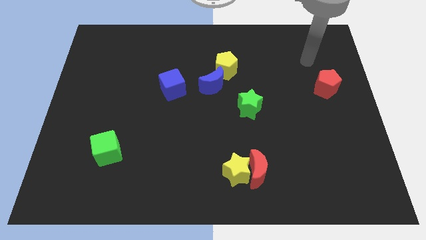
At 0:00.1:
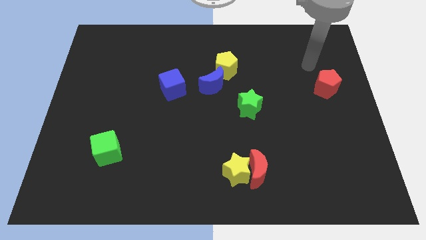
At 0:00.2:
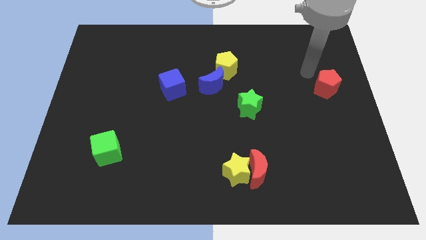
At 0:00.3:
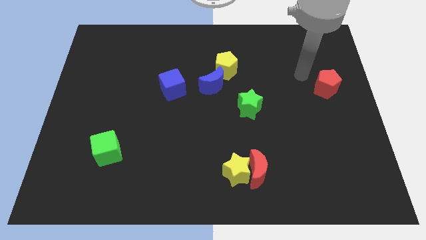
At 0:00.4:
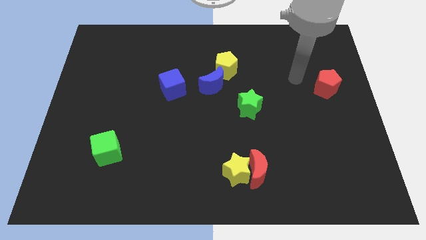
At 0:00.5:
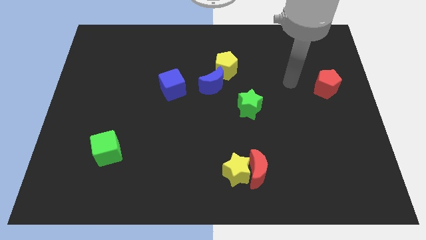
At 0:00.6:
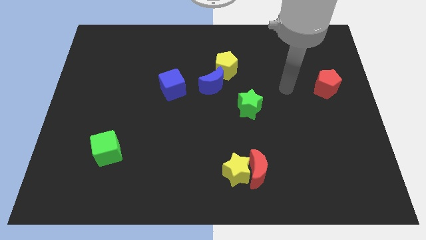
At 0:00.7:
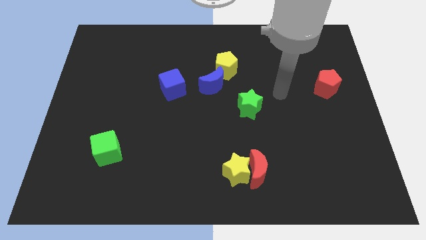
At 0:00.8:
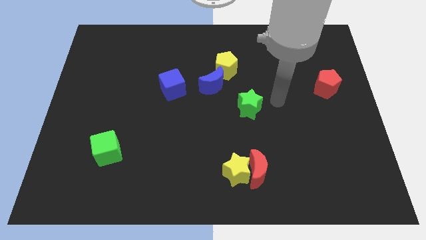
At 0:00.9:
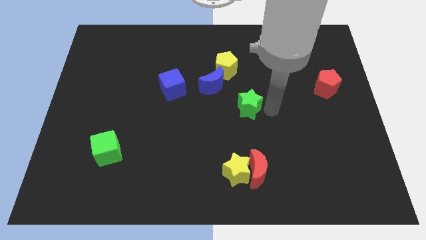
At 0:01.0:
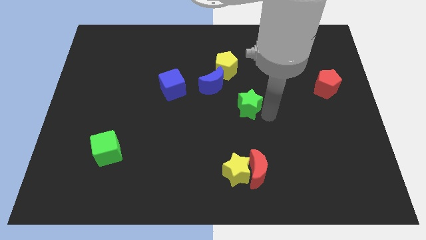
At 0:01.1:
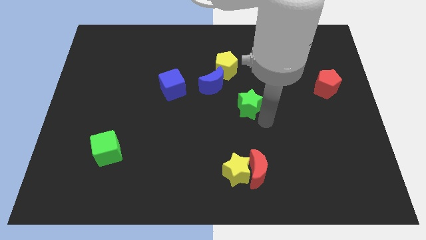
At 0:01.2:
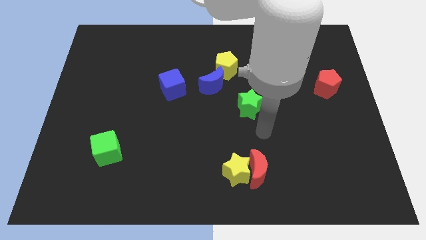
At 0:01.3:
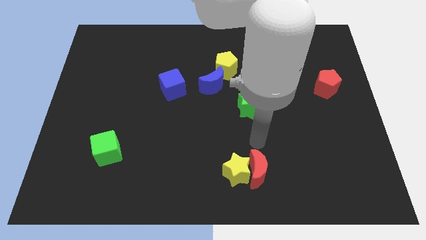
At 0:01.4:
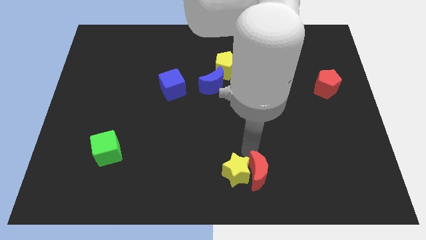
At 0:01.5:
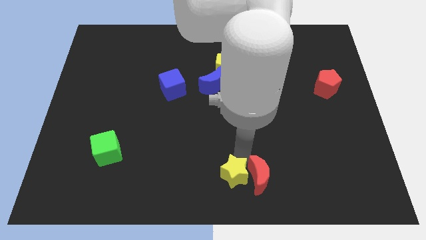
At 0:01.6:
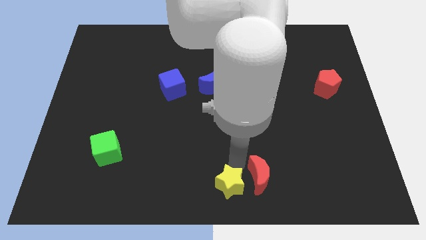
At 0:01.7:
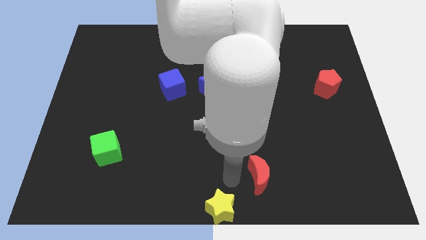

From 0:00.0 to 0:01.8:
separate the red moon from the yellow star

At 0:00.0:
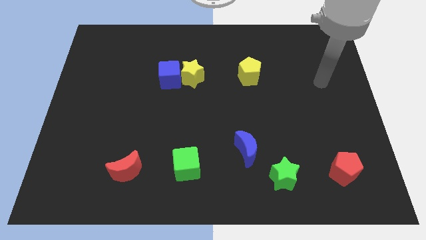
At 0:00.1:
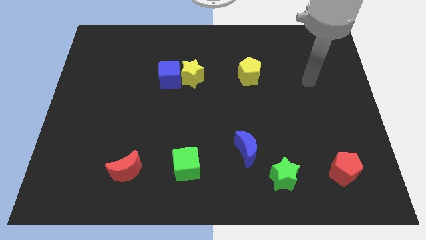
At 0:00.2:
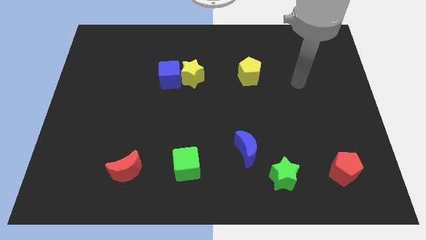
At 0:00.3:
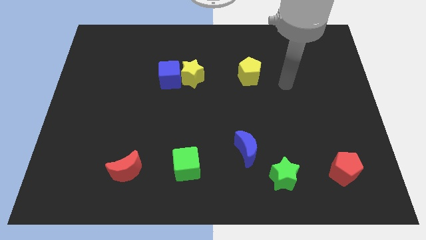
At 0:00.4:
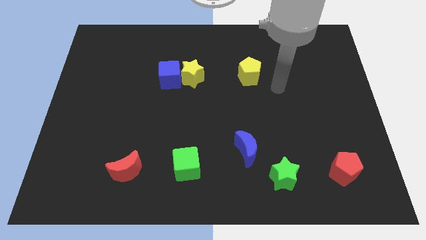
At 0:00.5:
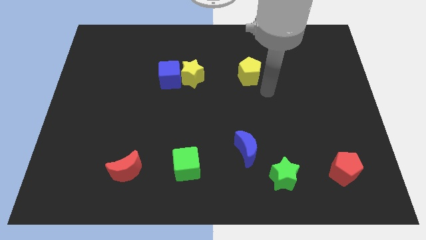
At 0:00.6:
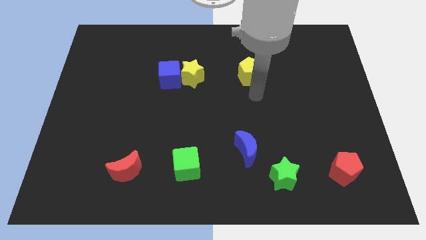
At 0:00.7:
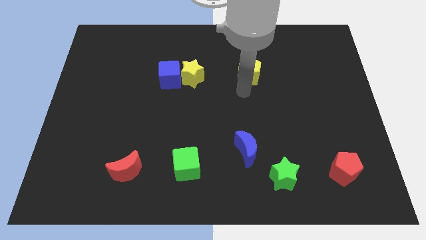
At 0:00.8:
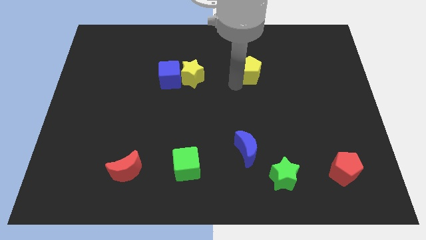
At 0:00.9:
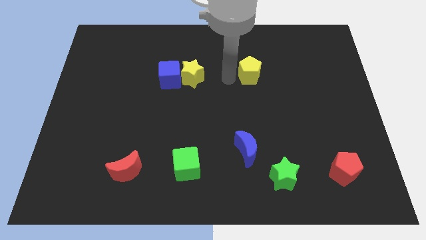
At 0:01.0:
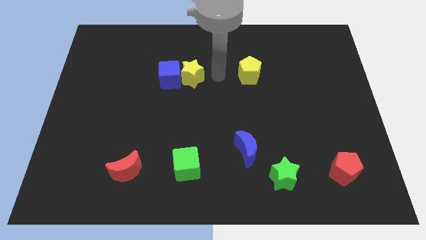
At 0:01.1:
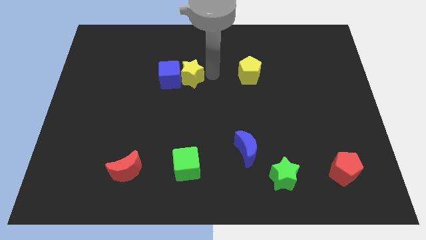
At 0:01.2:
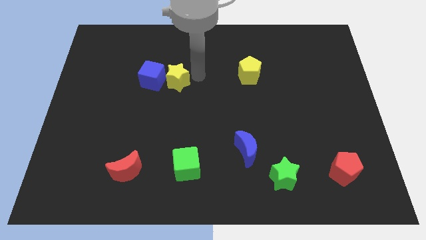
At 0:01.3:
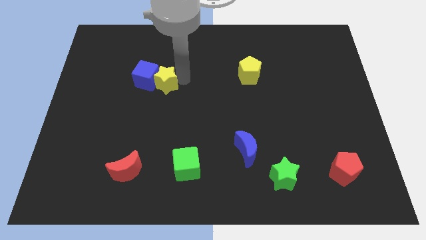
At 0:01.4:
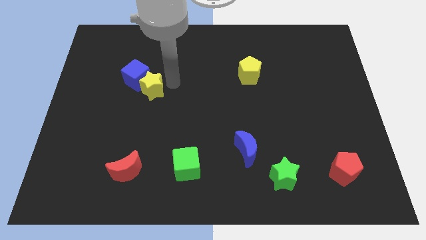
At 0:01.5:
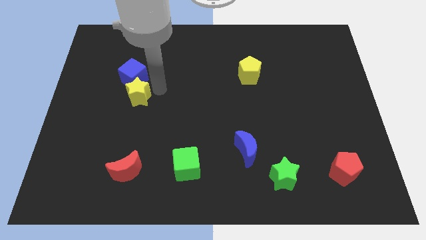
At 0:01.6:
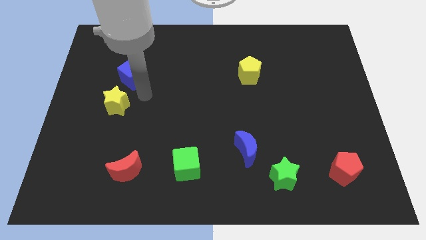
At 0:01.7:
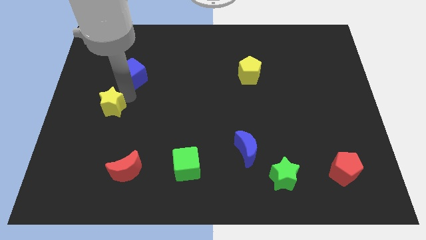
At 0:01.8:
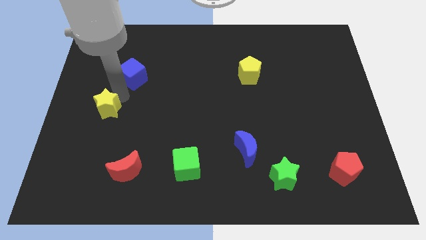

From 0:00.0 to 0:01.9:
separate the blue cube from the yellow star

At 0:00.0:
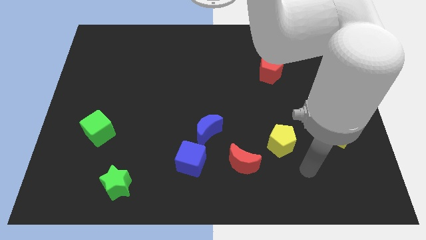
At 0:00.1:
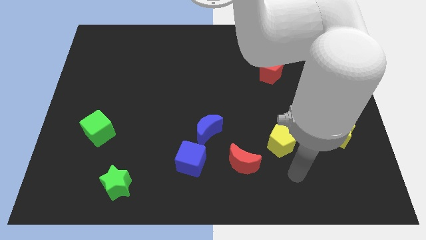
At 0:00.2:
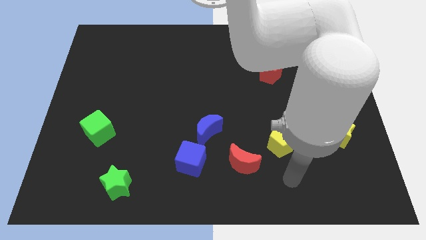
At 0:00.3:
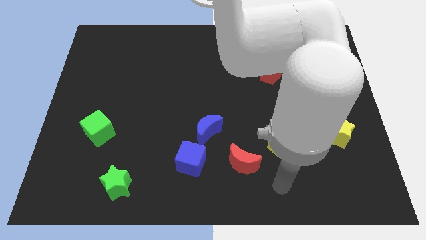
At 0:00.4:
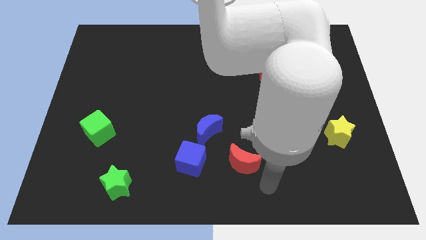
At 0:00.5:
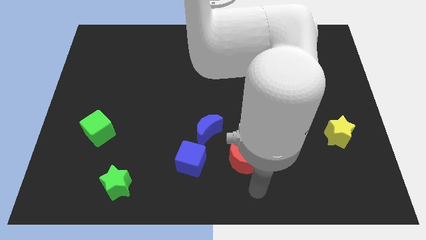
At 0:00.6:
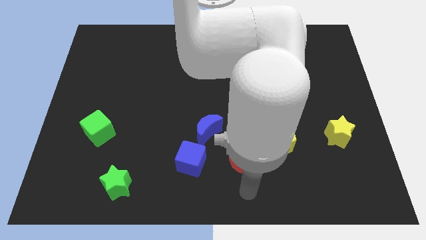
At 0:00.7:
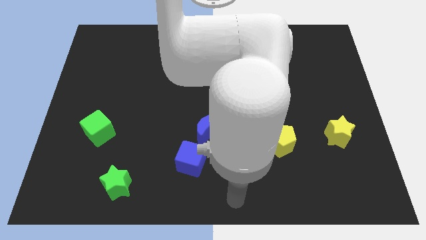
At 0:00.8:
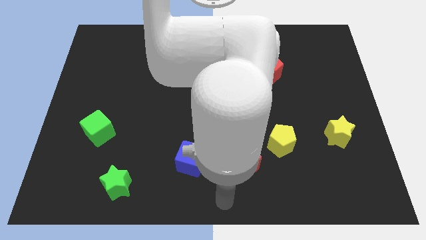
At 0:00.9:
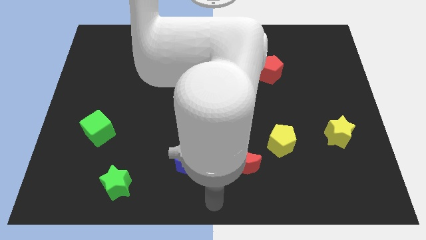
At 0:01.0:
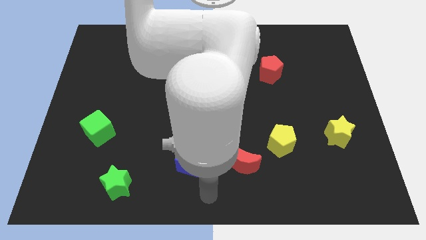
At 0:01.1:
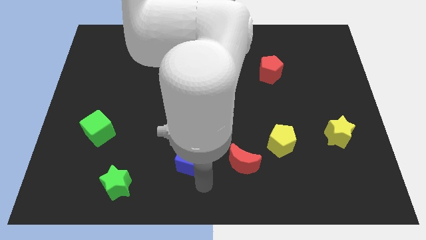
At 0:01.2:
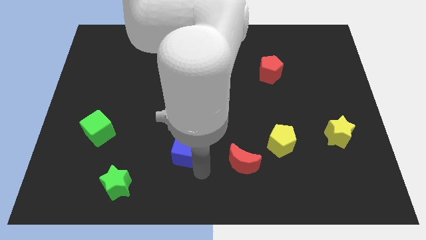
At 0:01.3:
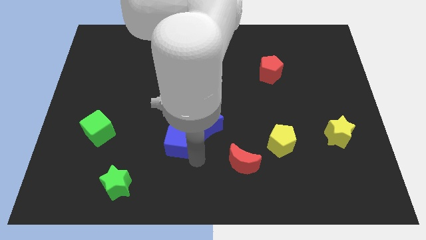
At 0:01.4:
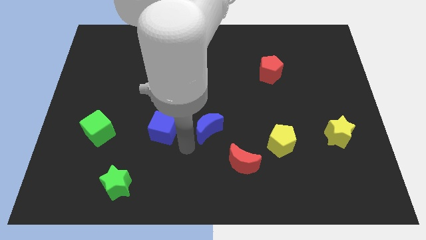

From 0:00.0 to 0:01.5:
move the blue moon away from the blue cube

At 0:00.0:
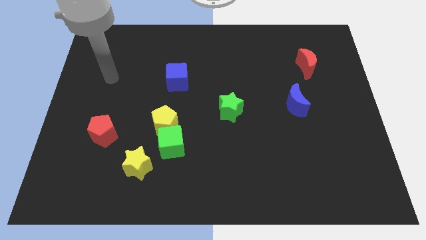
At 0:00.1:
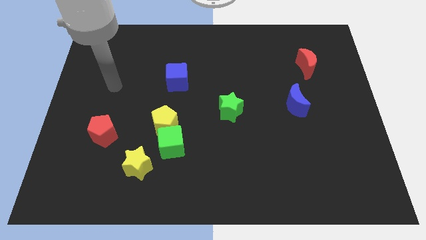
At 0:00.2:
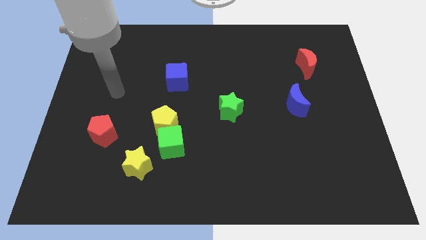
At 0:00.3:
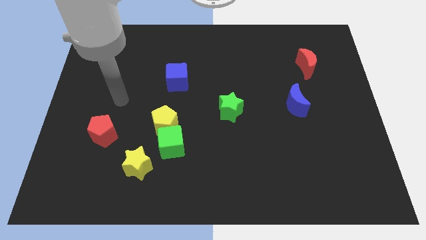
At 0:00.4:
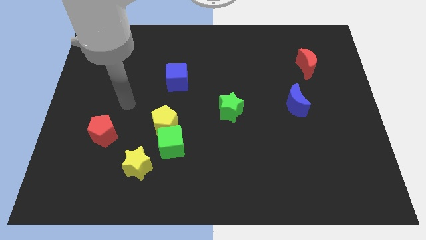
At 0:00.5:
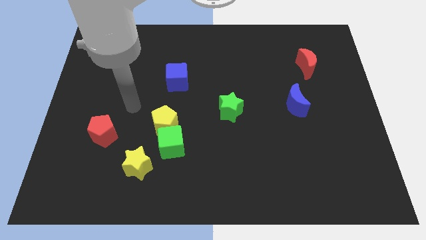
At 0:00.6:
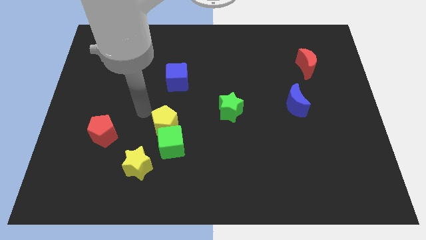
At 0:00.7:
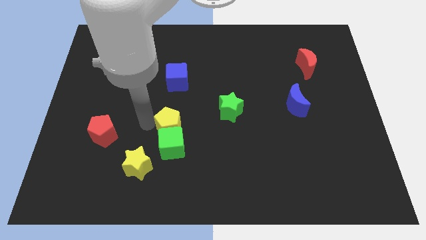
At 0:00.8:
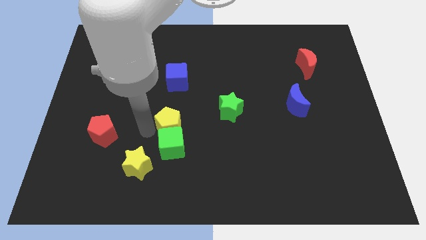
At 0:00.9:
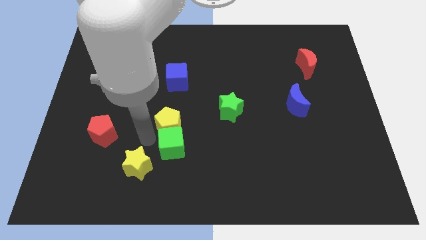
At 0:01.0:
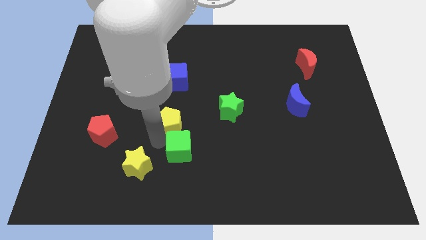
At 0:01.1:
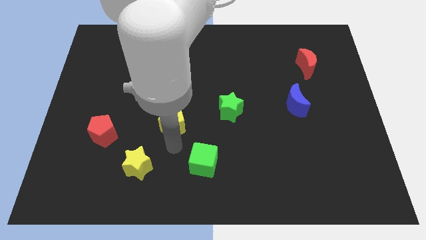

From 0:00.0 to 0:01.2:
move the yellow pentagon away from the green cube

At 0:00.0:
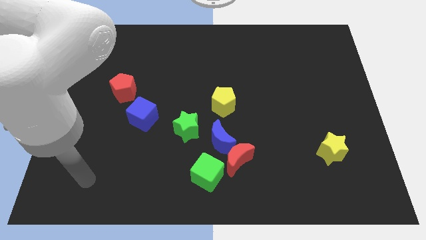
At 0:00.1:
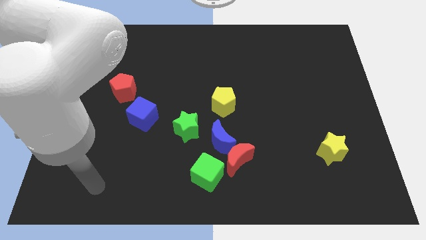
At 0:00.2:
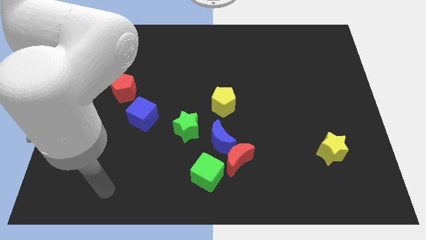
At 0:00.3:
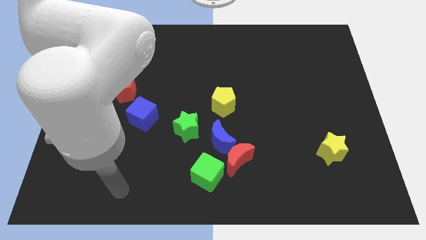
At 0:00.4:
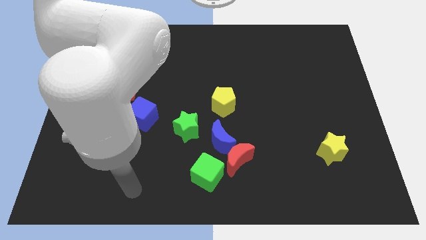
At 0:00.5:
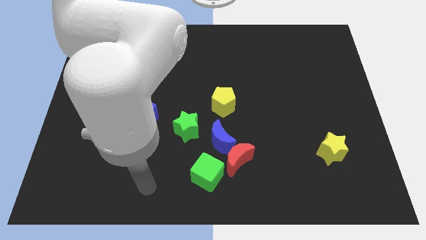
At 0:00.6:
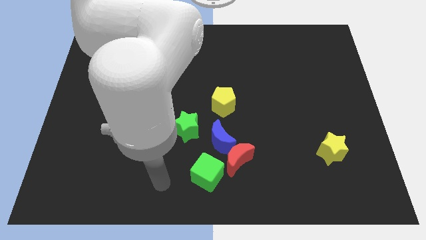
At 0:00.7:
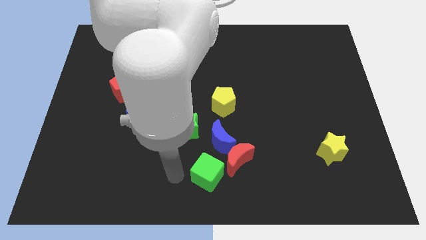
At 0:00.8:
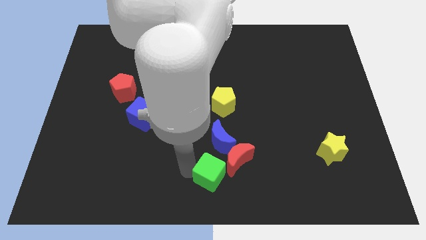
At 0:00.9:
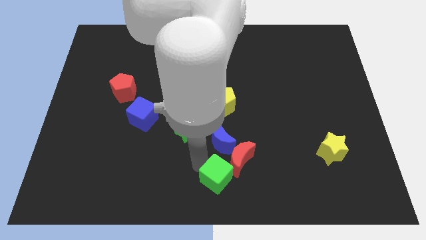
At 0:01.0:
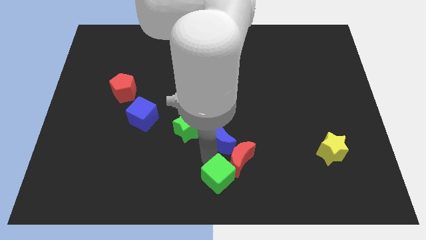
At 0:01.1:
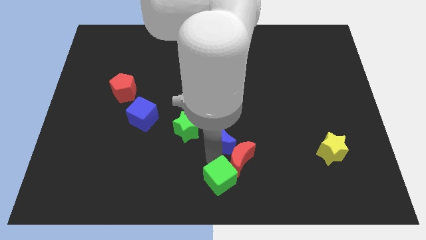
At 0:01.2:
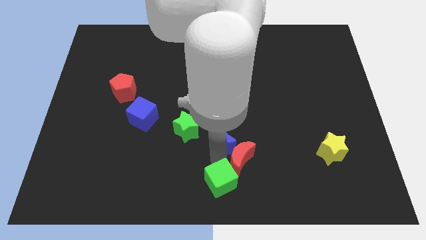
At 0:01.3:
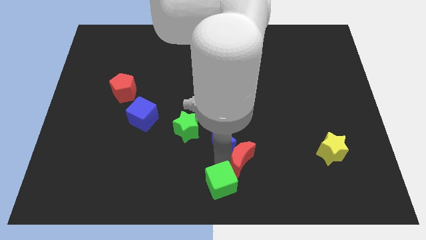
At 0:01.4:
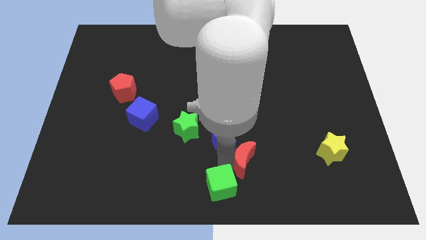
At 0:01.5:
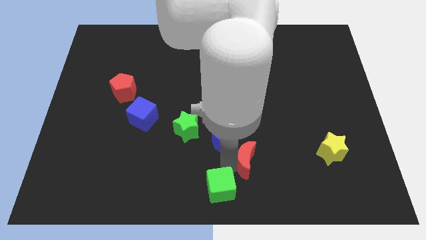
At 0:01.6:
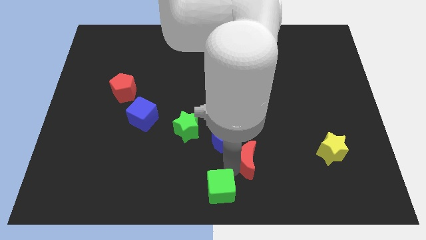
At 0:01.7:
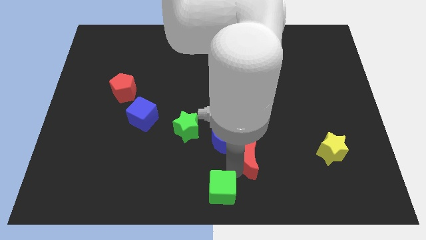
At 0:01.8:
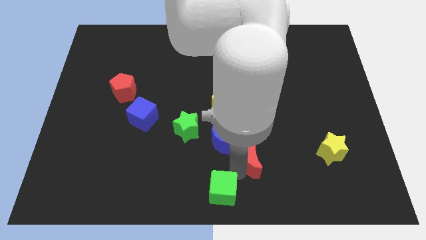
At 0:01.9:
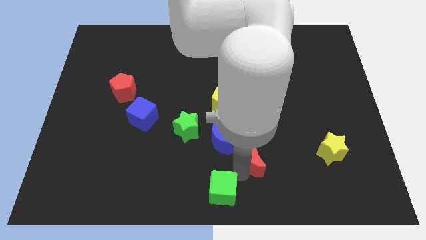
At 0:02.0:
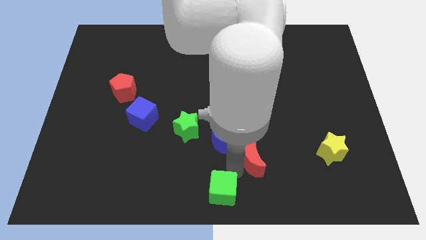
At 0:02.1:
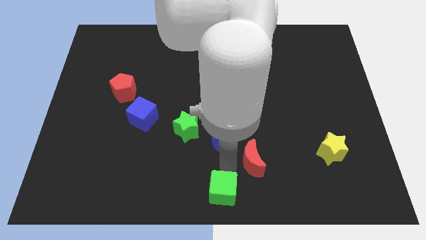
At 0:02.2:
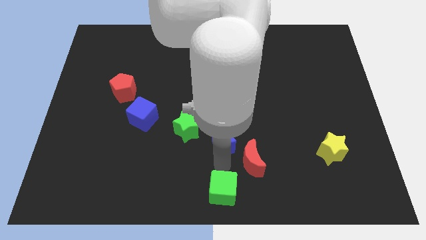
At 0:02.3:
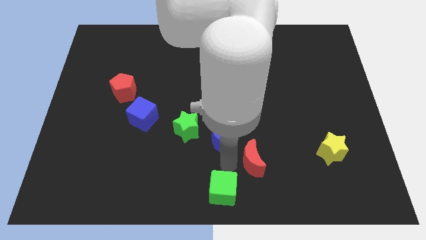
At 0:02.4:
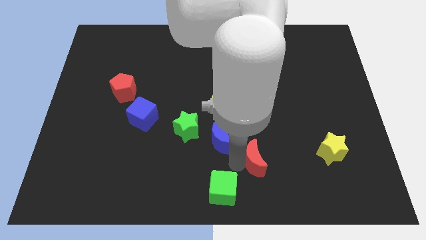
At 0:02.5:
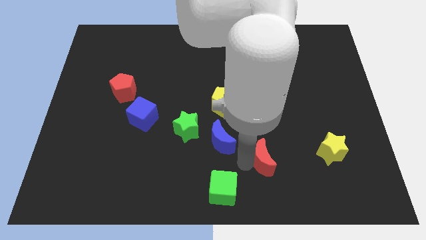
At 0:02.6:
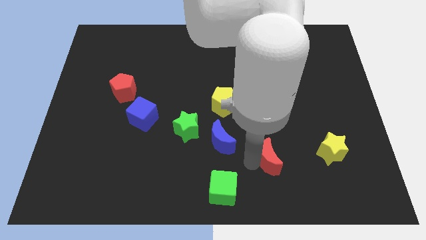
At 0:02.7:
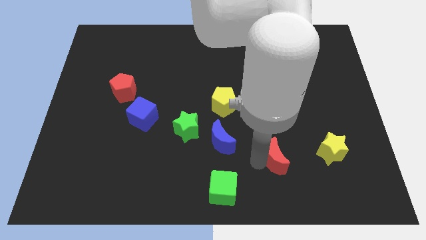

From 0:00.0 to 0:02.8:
pull the red moon apart from the blue moon and green cube
